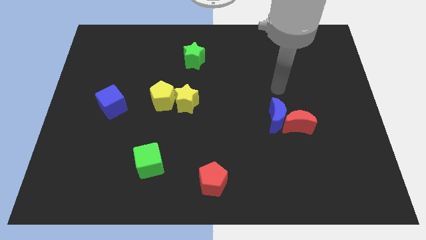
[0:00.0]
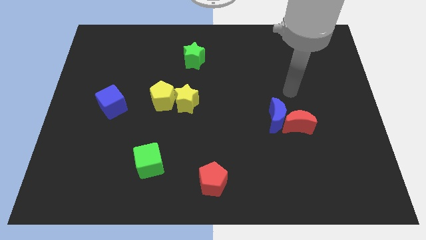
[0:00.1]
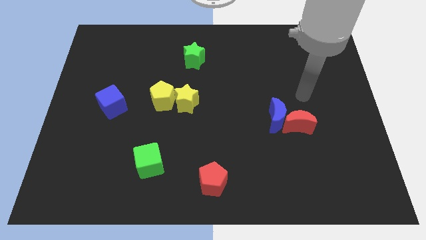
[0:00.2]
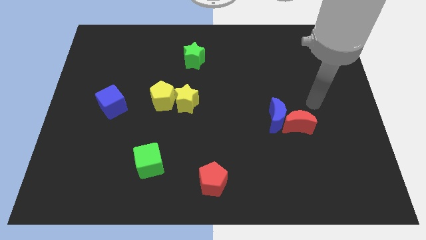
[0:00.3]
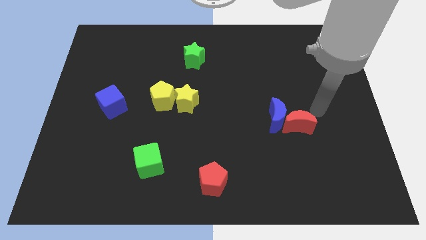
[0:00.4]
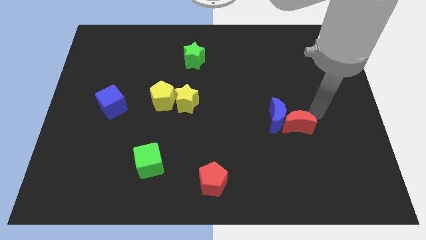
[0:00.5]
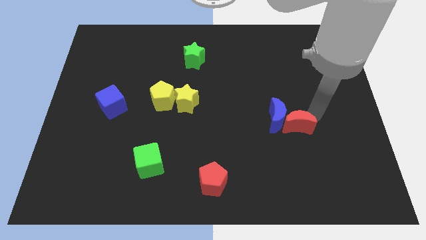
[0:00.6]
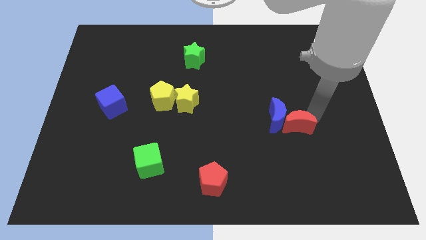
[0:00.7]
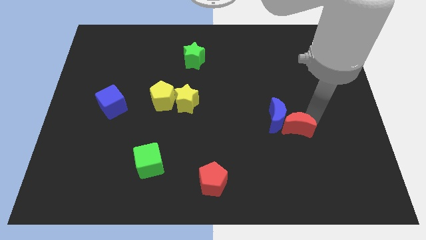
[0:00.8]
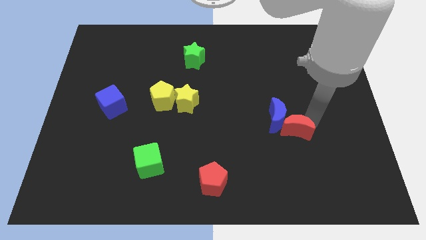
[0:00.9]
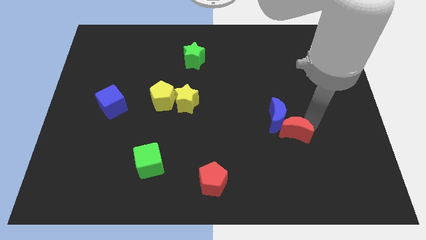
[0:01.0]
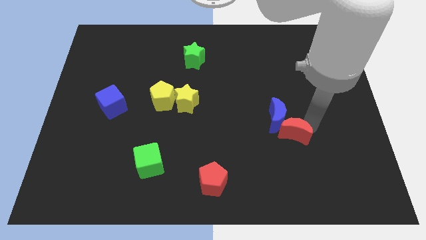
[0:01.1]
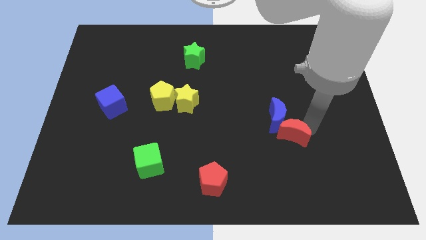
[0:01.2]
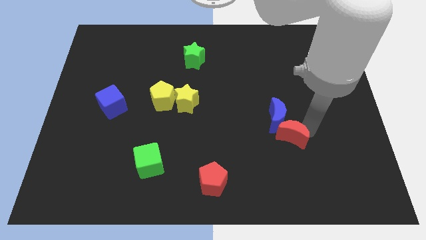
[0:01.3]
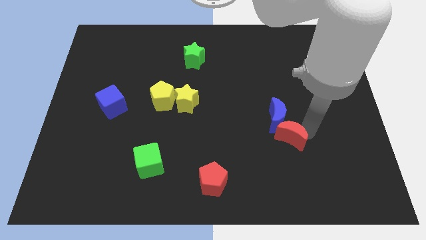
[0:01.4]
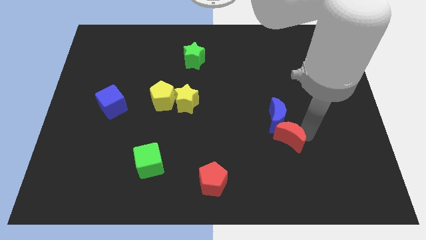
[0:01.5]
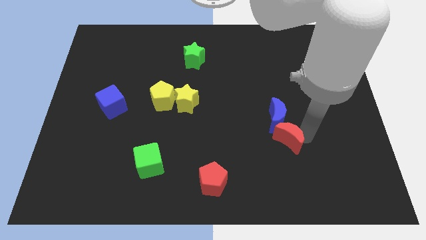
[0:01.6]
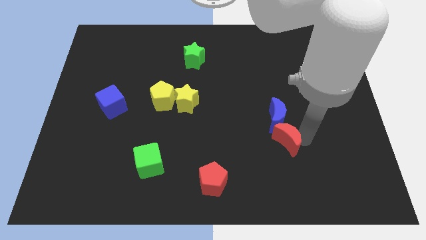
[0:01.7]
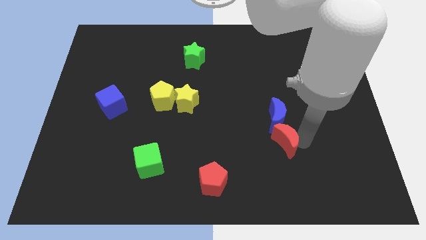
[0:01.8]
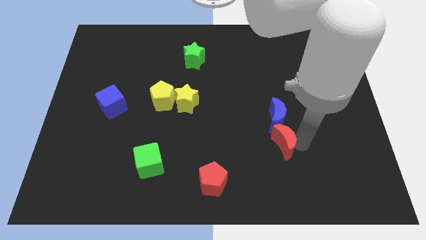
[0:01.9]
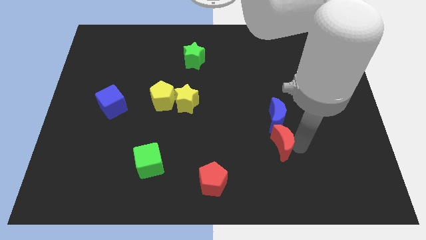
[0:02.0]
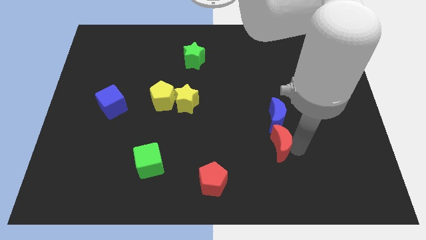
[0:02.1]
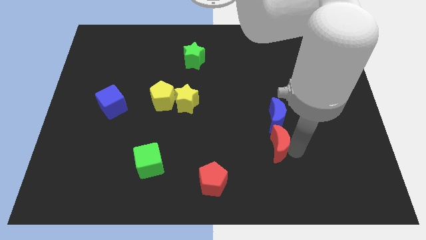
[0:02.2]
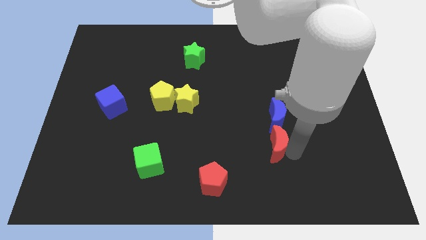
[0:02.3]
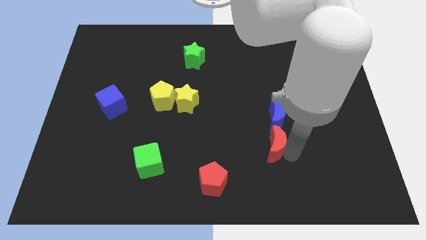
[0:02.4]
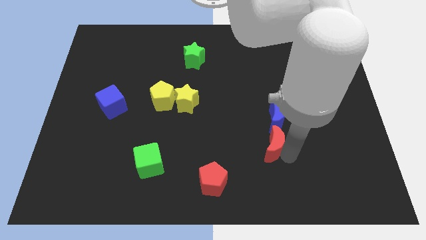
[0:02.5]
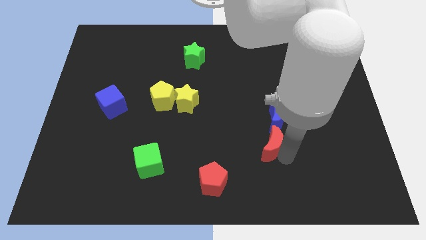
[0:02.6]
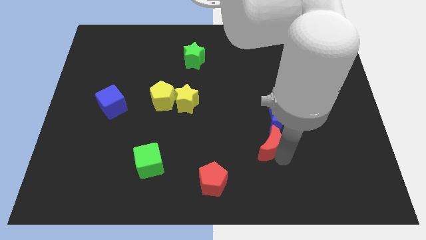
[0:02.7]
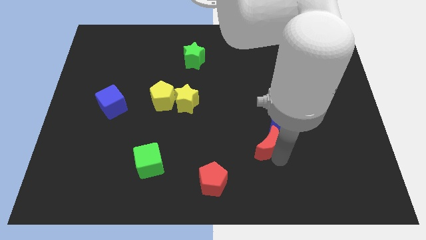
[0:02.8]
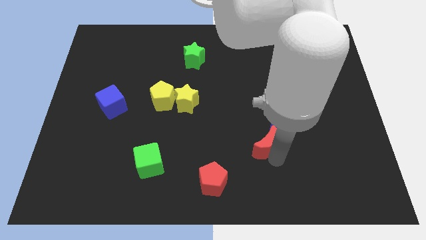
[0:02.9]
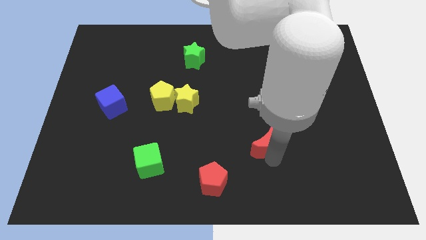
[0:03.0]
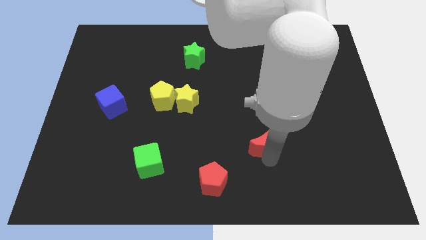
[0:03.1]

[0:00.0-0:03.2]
slightly push the red moon left

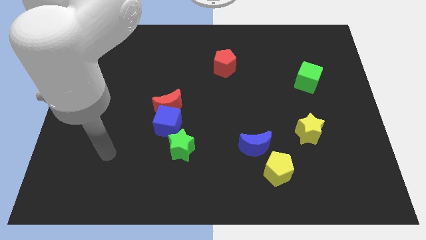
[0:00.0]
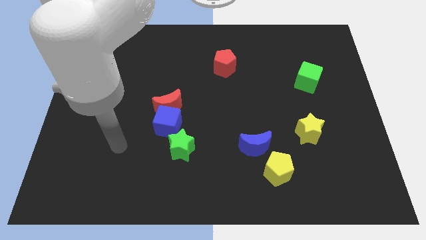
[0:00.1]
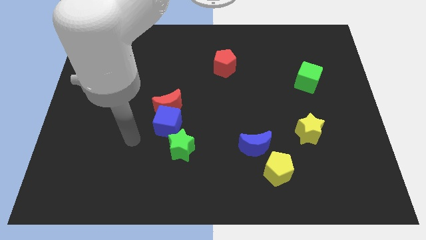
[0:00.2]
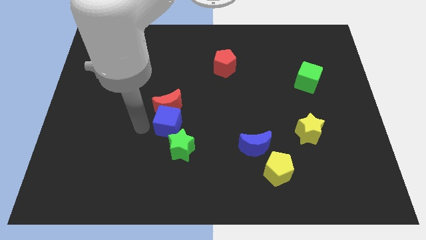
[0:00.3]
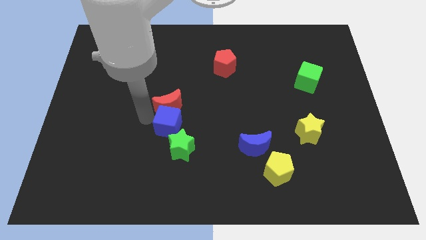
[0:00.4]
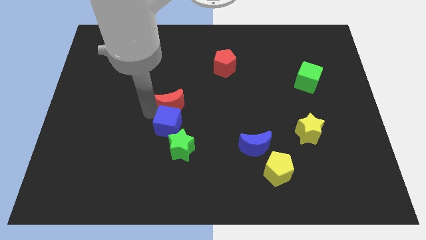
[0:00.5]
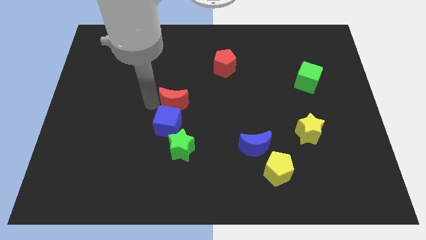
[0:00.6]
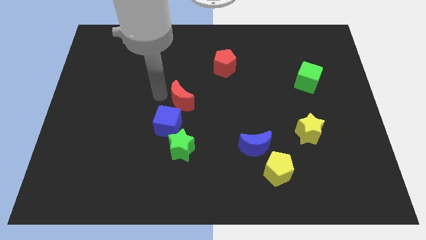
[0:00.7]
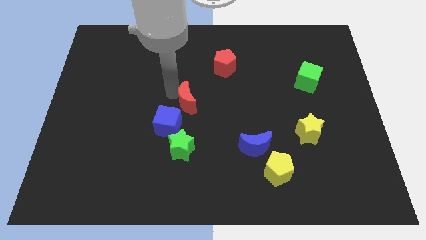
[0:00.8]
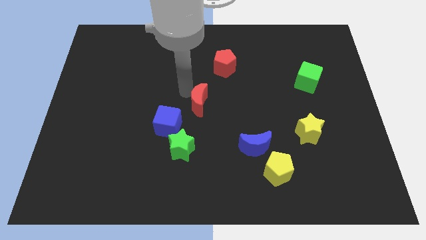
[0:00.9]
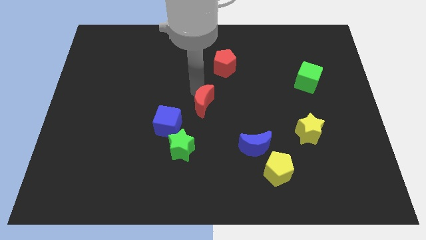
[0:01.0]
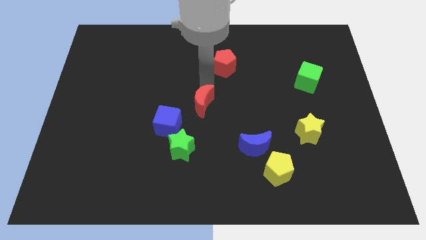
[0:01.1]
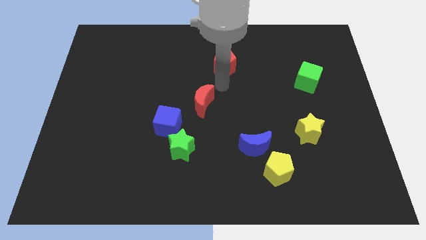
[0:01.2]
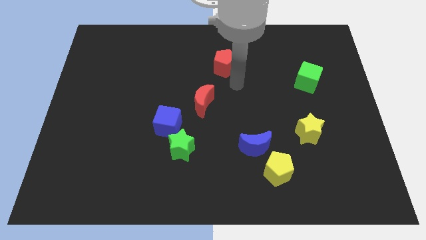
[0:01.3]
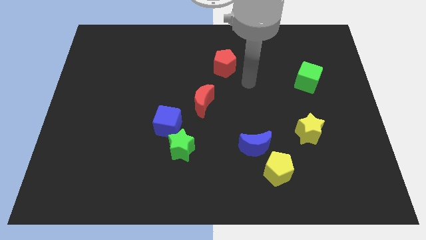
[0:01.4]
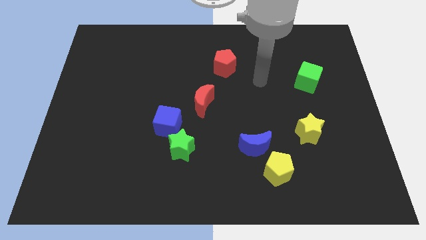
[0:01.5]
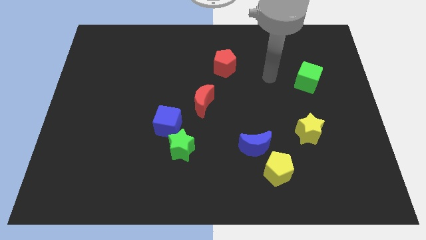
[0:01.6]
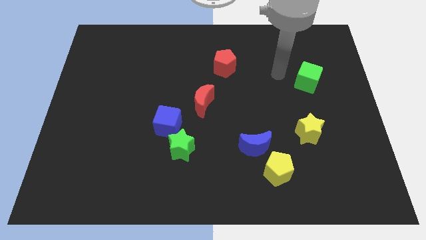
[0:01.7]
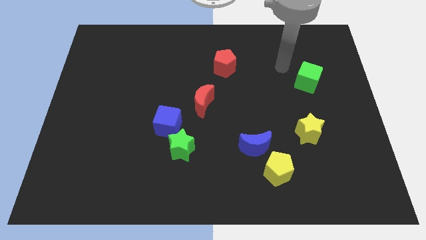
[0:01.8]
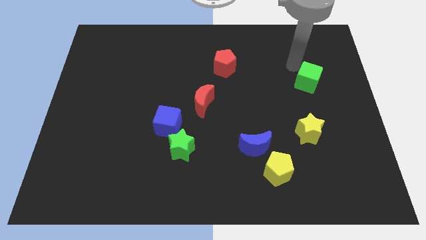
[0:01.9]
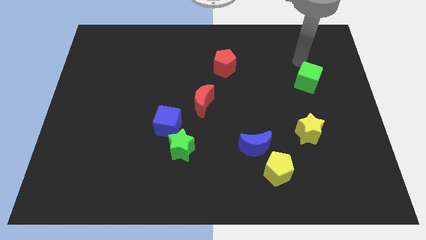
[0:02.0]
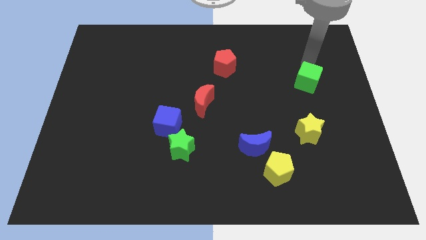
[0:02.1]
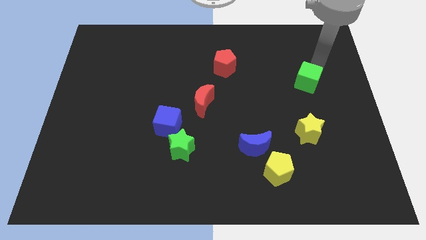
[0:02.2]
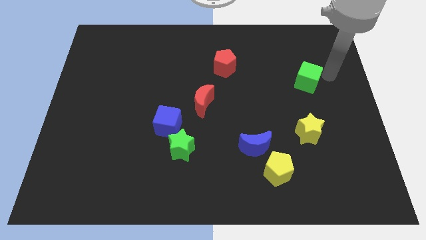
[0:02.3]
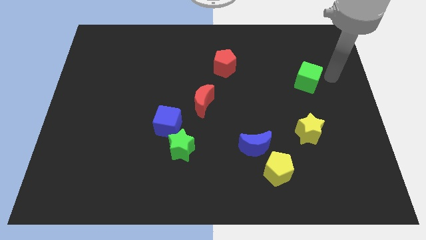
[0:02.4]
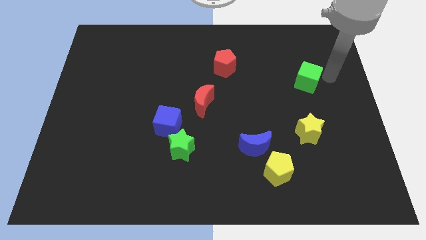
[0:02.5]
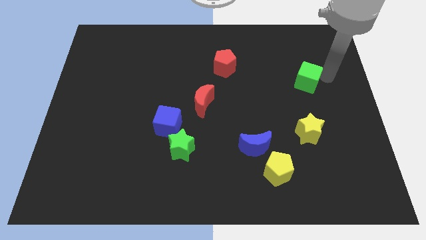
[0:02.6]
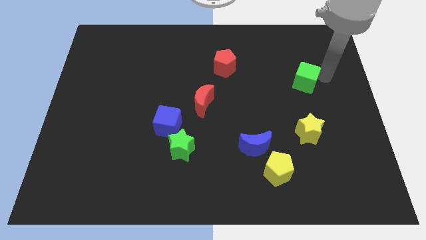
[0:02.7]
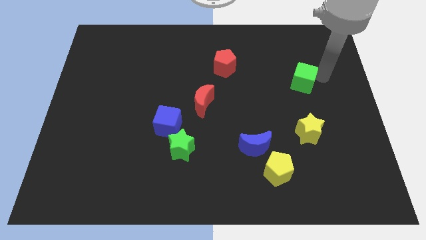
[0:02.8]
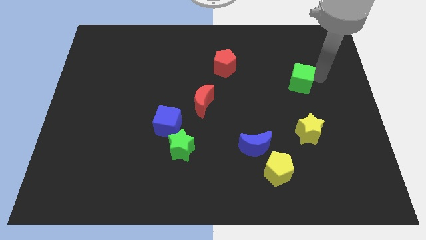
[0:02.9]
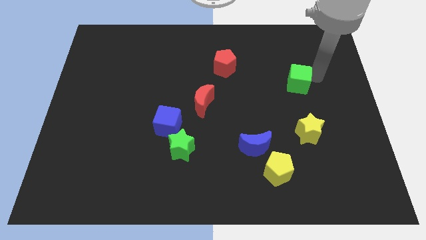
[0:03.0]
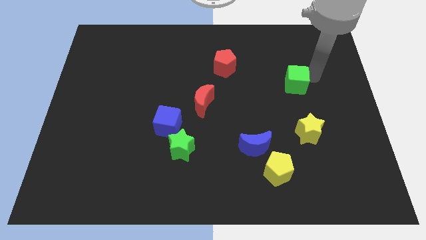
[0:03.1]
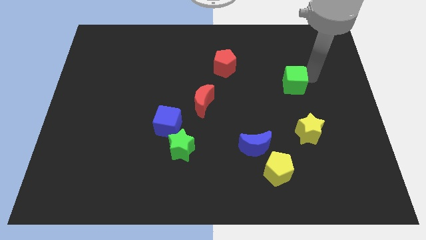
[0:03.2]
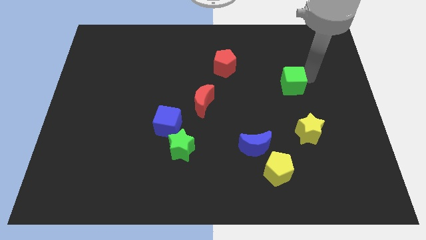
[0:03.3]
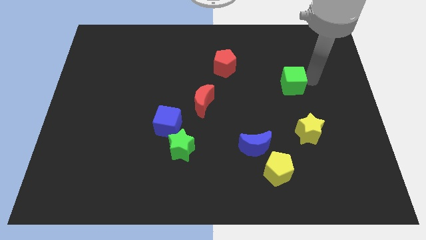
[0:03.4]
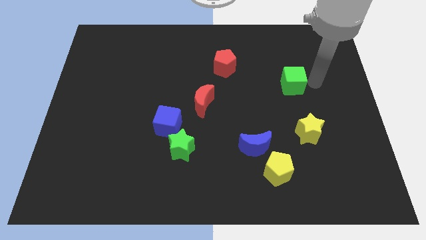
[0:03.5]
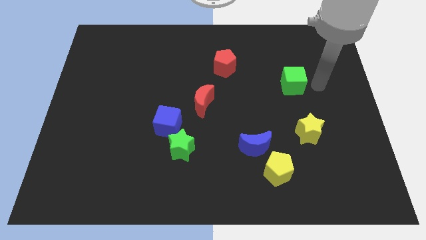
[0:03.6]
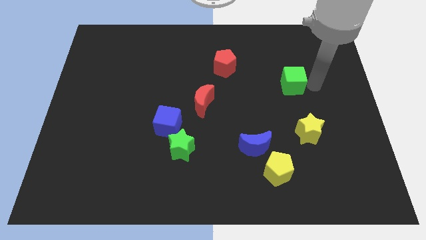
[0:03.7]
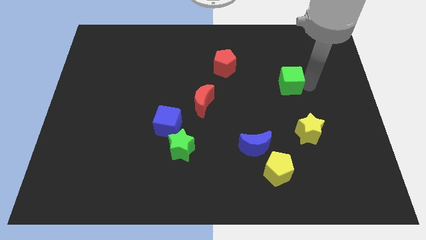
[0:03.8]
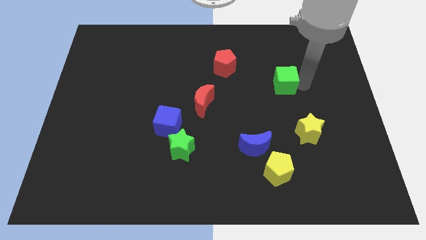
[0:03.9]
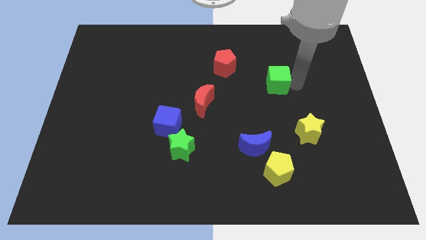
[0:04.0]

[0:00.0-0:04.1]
move the green cube left a little bit

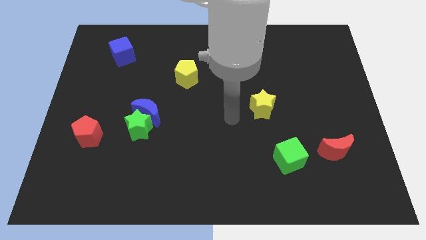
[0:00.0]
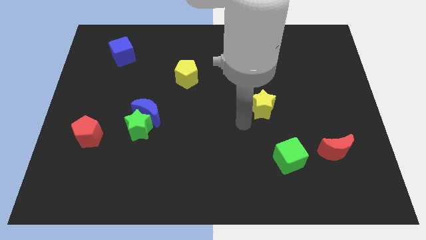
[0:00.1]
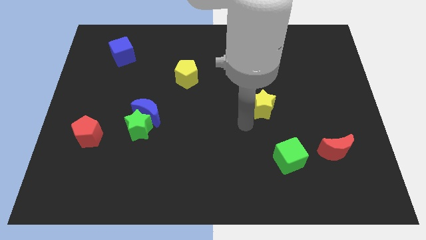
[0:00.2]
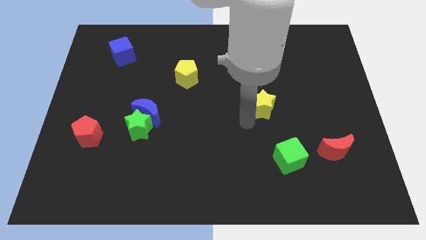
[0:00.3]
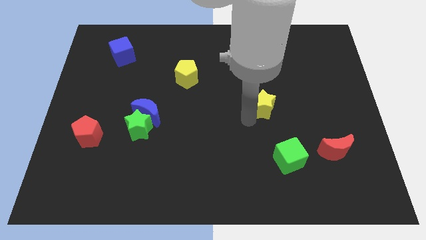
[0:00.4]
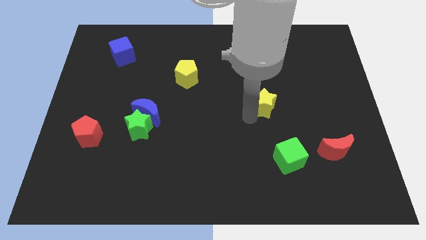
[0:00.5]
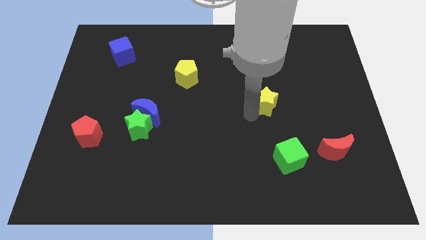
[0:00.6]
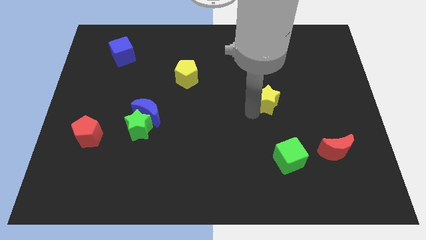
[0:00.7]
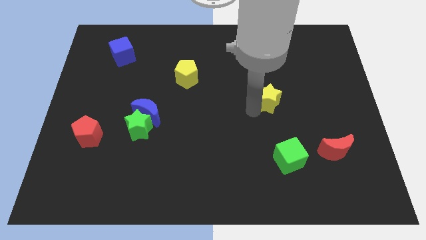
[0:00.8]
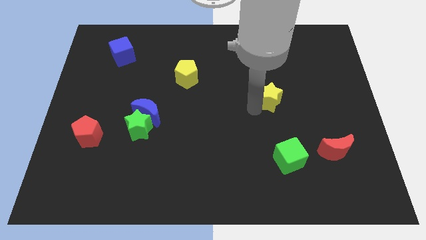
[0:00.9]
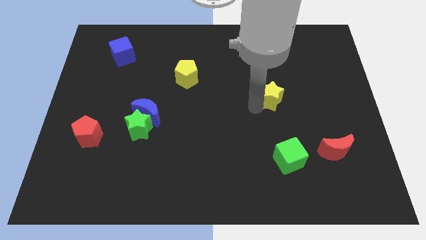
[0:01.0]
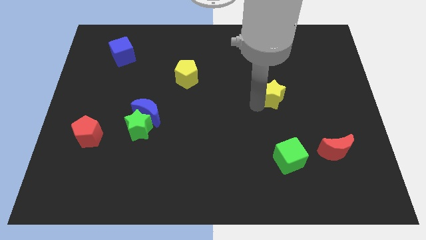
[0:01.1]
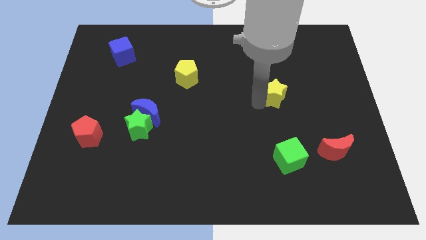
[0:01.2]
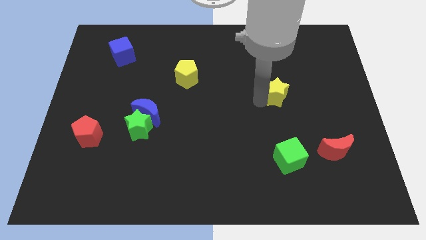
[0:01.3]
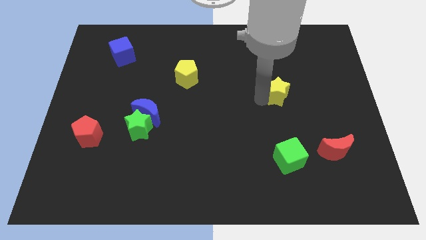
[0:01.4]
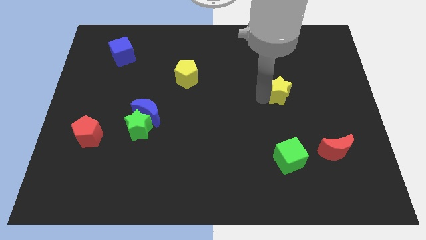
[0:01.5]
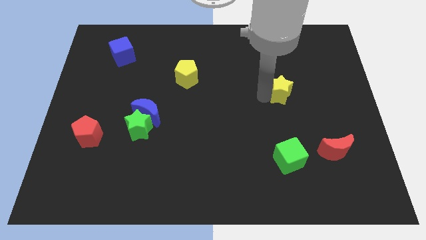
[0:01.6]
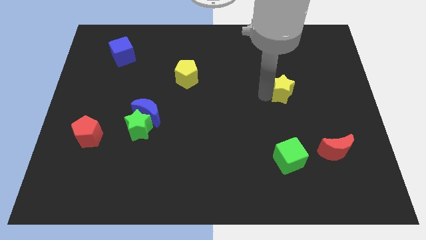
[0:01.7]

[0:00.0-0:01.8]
push the yellow star up and right a little bit
